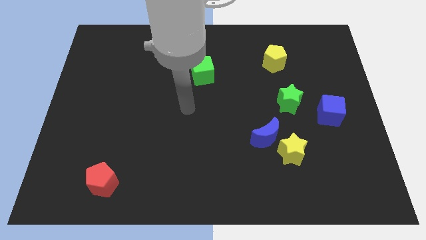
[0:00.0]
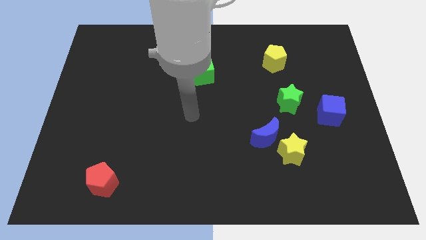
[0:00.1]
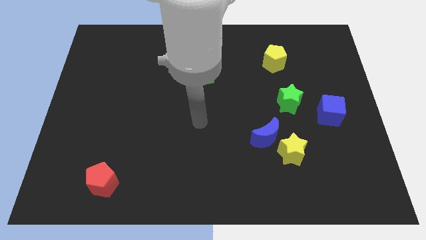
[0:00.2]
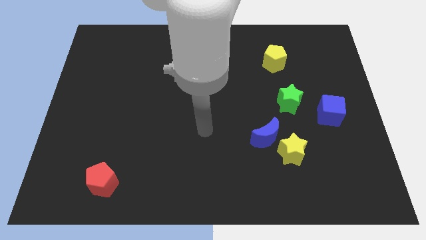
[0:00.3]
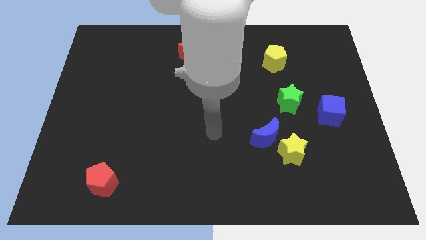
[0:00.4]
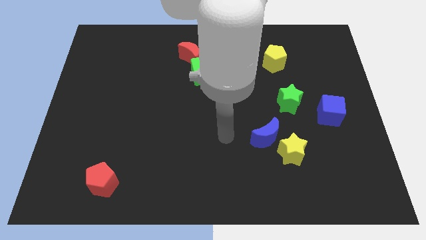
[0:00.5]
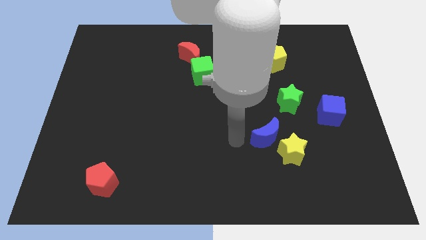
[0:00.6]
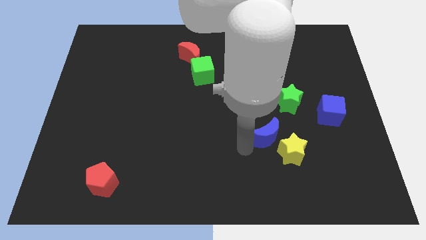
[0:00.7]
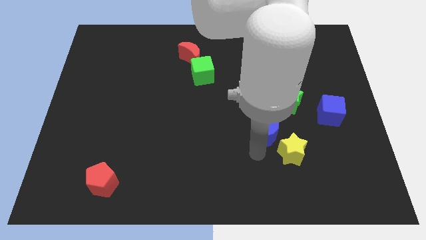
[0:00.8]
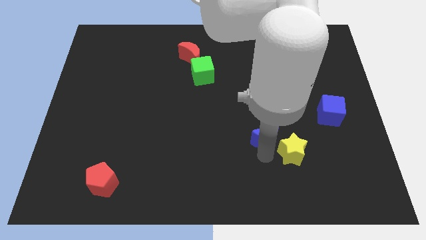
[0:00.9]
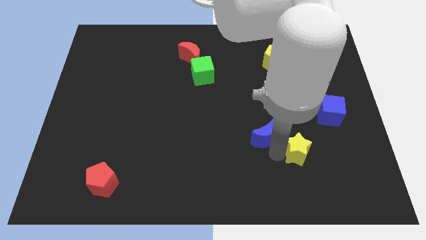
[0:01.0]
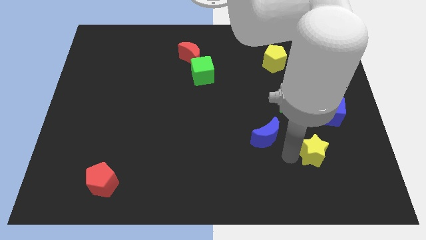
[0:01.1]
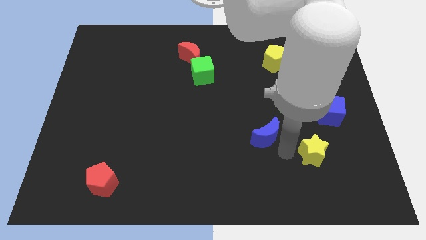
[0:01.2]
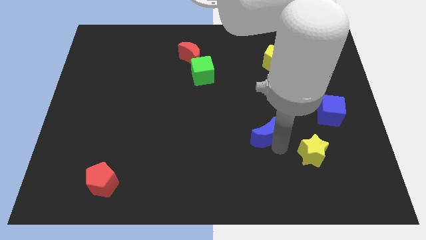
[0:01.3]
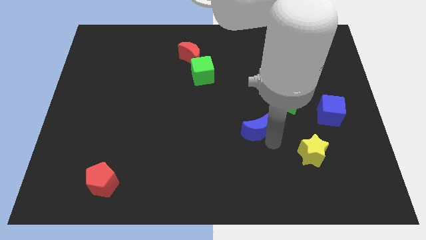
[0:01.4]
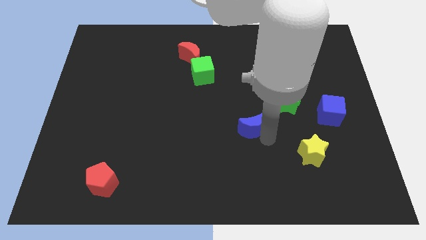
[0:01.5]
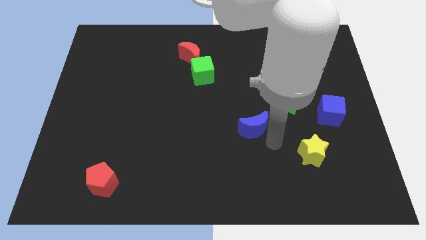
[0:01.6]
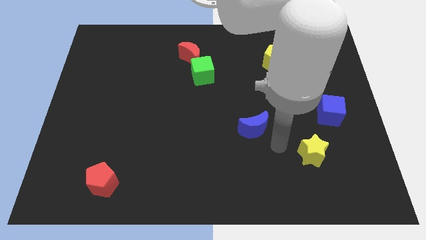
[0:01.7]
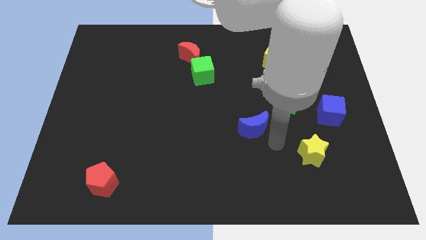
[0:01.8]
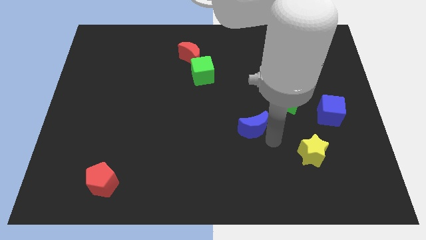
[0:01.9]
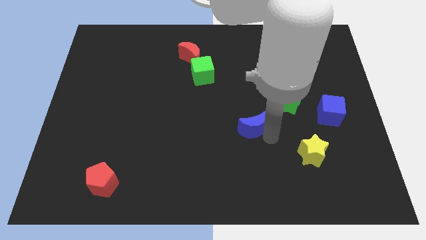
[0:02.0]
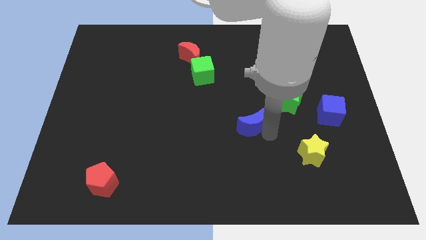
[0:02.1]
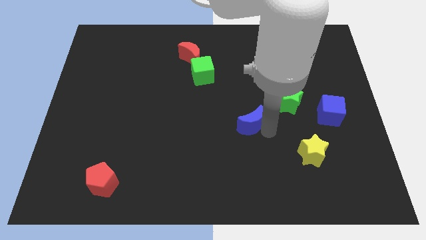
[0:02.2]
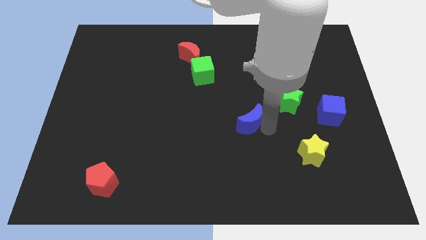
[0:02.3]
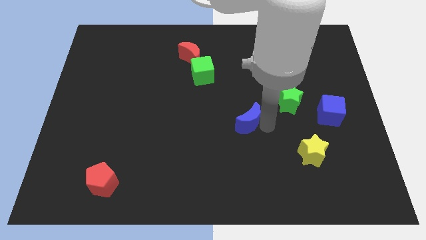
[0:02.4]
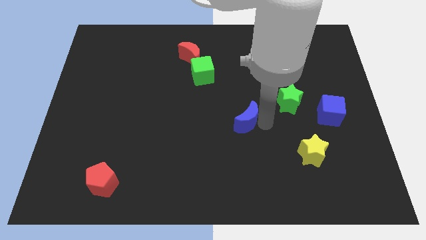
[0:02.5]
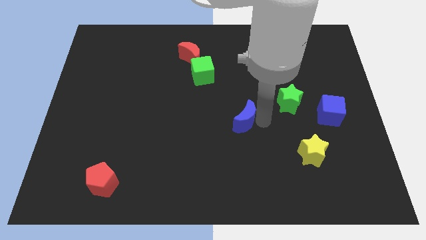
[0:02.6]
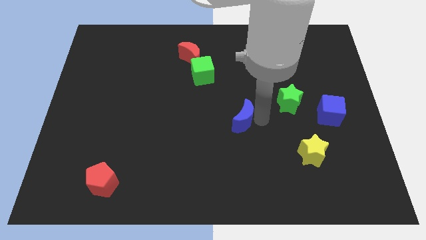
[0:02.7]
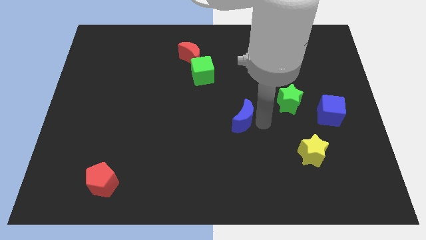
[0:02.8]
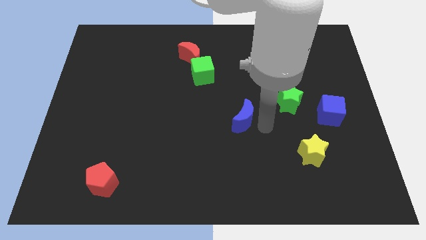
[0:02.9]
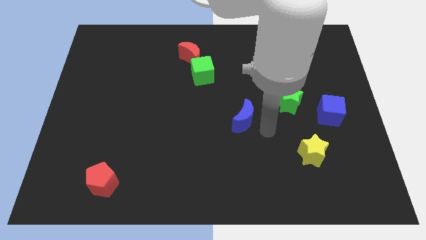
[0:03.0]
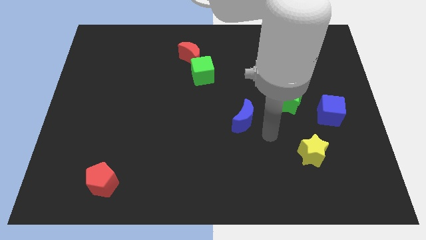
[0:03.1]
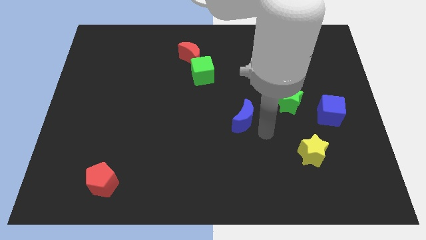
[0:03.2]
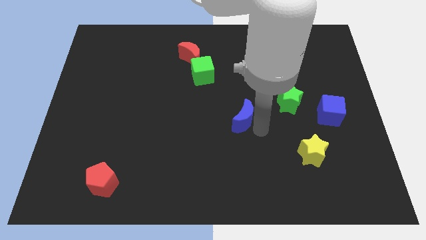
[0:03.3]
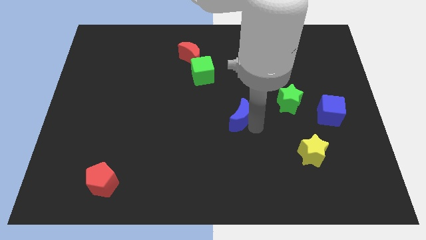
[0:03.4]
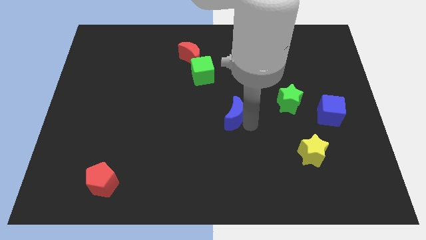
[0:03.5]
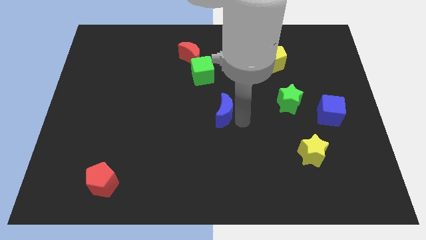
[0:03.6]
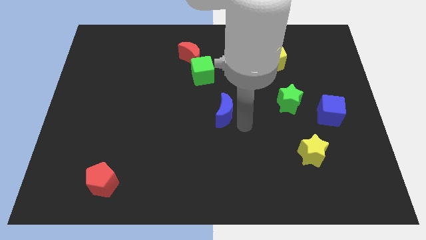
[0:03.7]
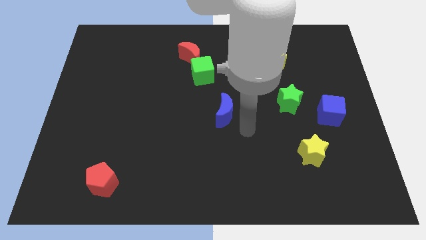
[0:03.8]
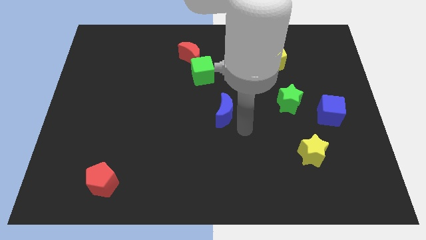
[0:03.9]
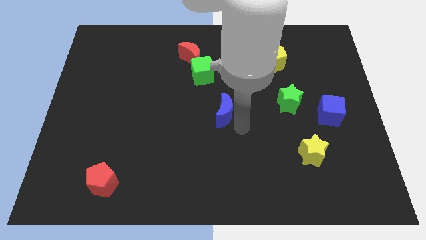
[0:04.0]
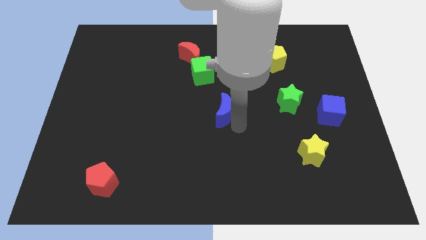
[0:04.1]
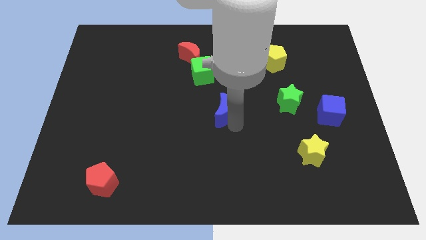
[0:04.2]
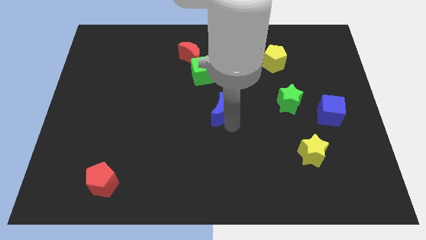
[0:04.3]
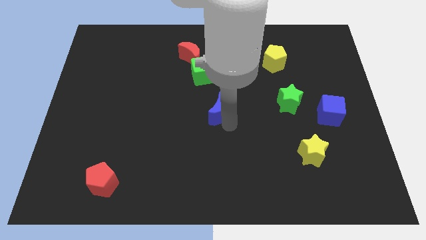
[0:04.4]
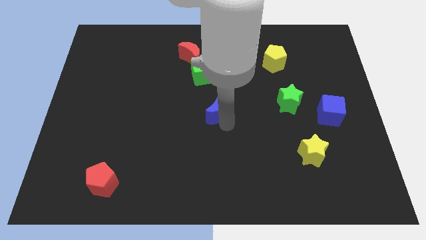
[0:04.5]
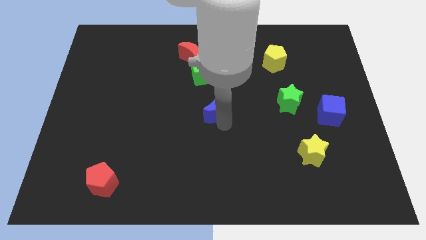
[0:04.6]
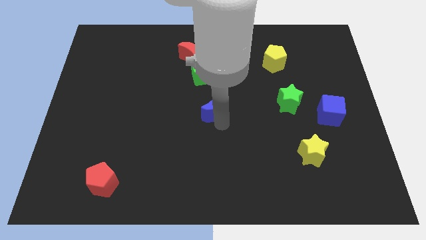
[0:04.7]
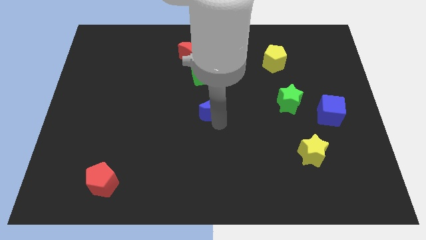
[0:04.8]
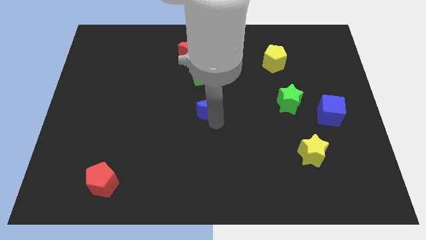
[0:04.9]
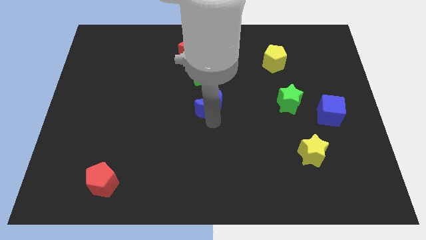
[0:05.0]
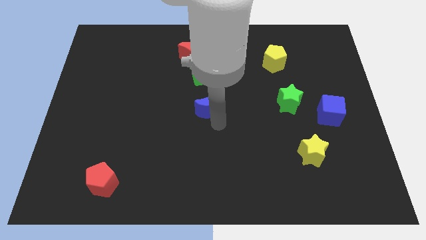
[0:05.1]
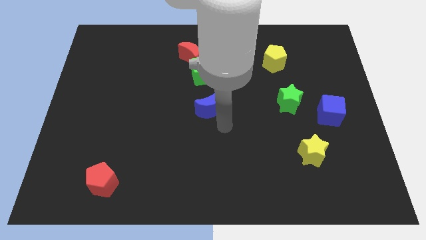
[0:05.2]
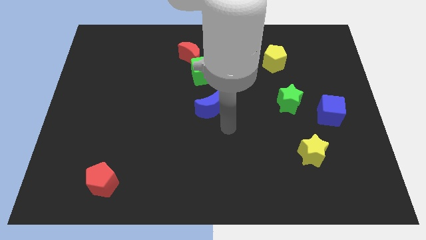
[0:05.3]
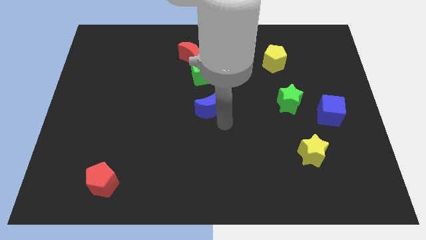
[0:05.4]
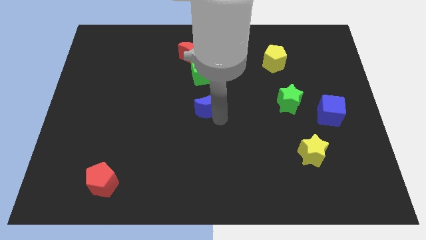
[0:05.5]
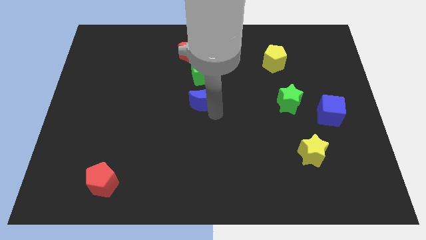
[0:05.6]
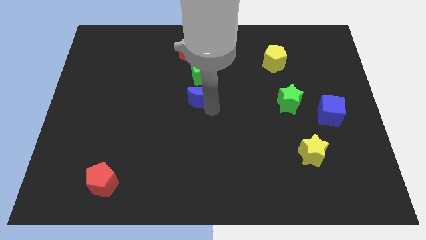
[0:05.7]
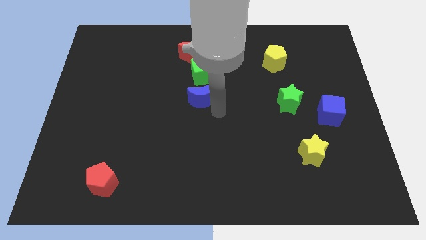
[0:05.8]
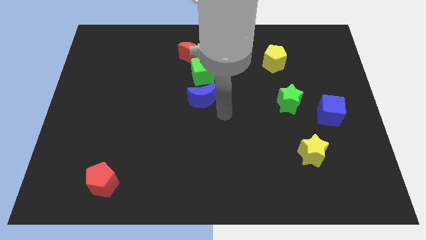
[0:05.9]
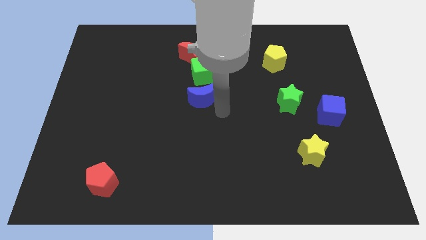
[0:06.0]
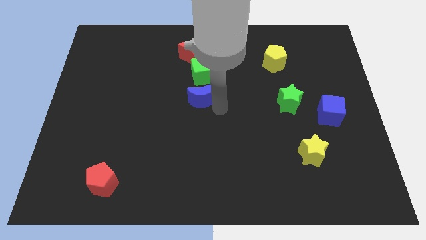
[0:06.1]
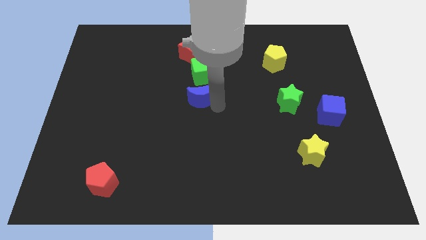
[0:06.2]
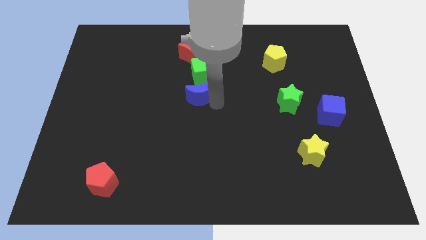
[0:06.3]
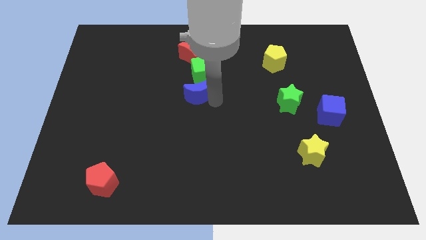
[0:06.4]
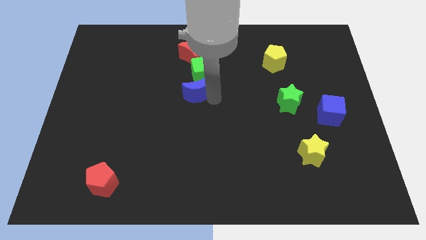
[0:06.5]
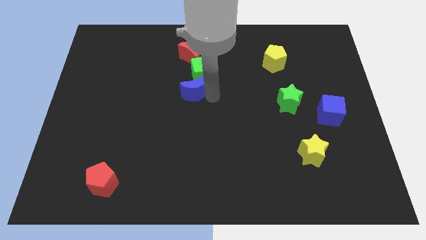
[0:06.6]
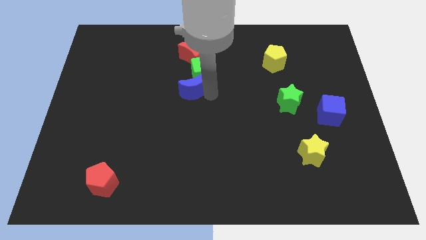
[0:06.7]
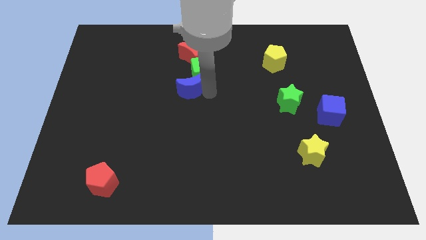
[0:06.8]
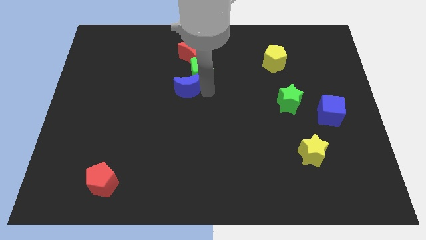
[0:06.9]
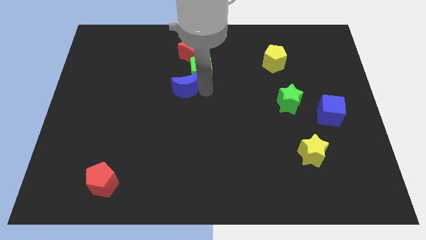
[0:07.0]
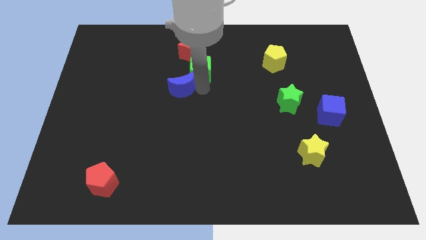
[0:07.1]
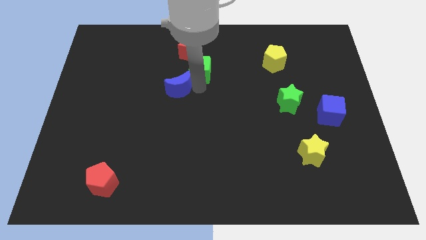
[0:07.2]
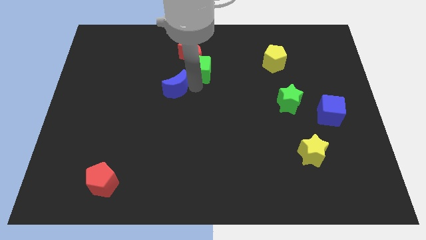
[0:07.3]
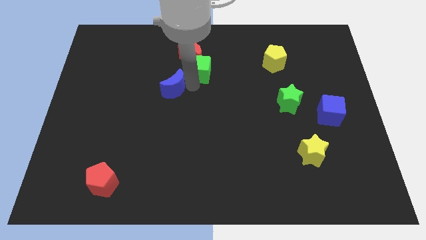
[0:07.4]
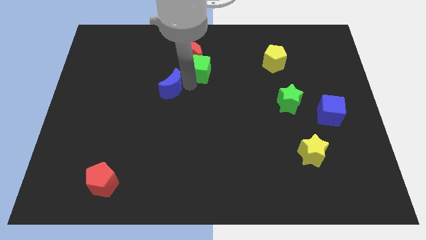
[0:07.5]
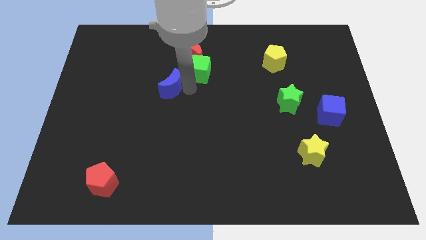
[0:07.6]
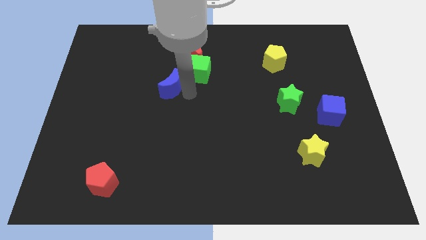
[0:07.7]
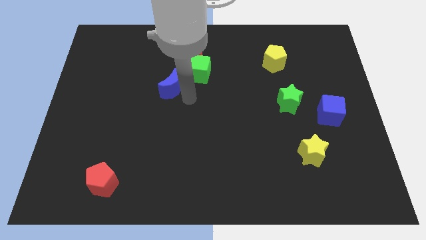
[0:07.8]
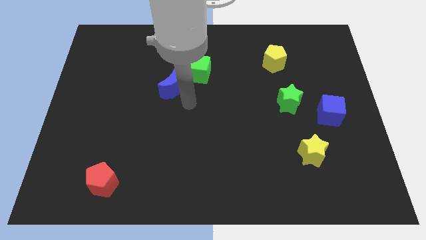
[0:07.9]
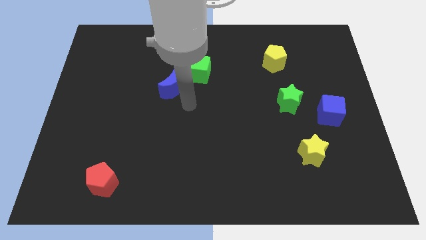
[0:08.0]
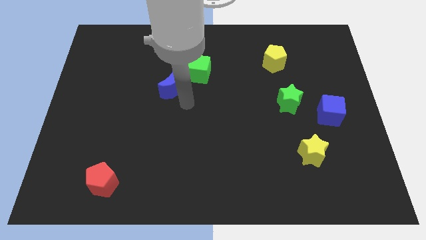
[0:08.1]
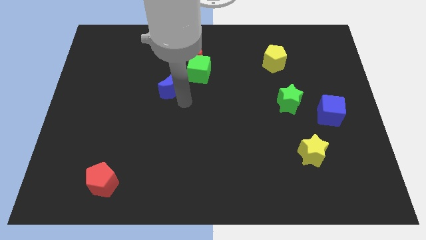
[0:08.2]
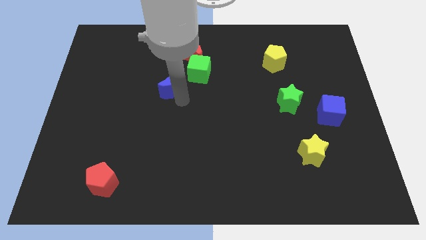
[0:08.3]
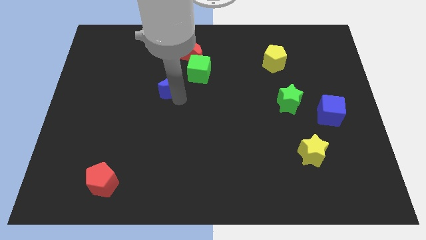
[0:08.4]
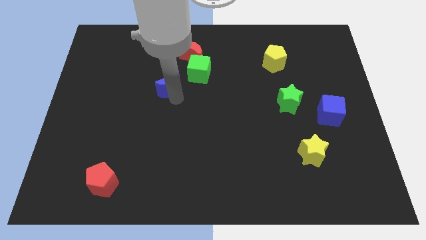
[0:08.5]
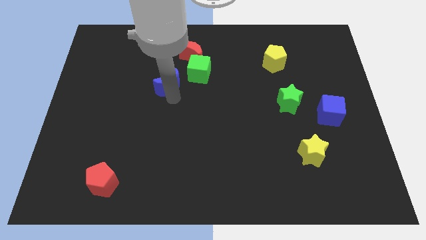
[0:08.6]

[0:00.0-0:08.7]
put the blue moon just left of the green cube
